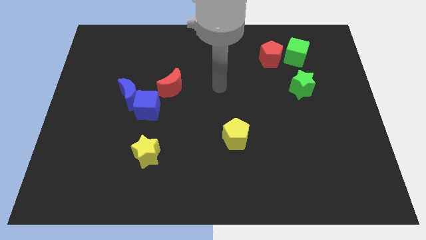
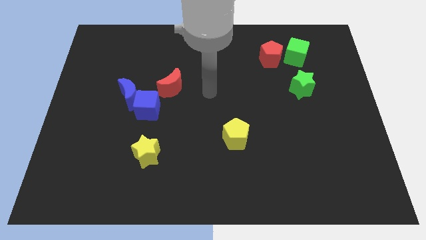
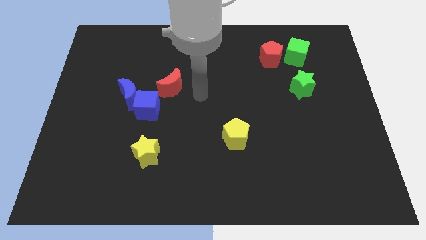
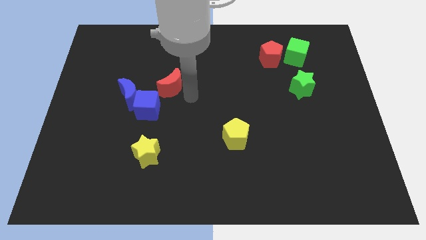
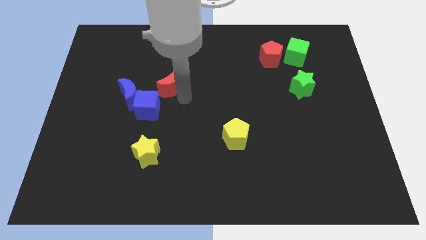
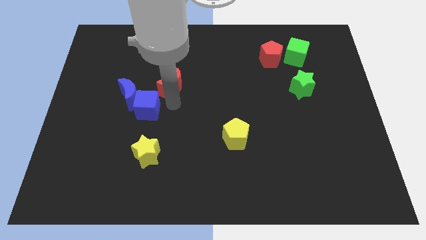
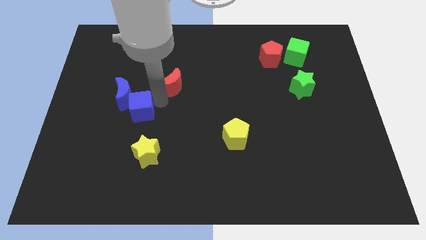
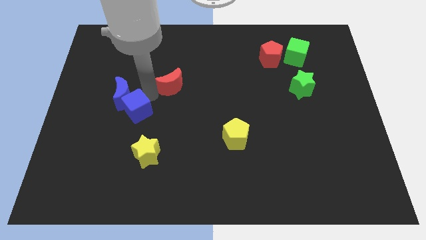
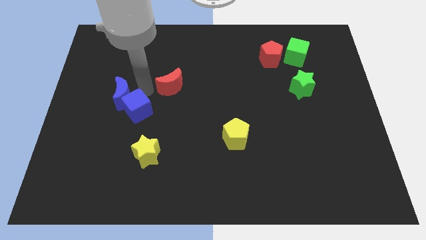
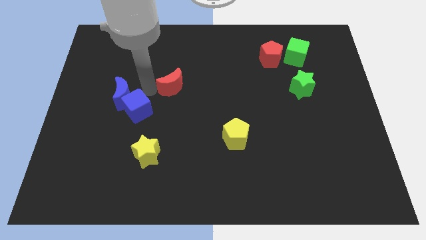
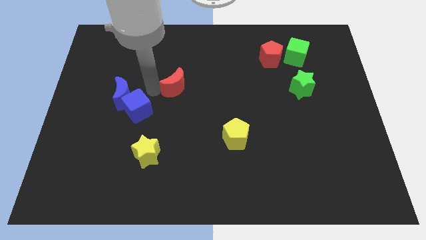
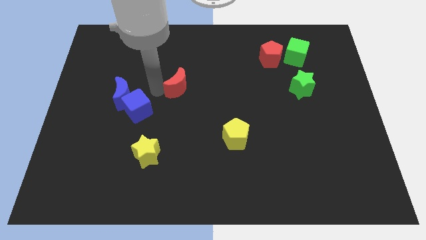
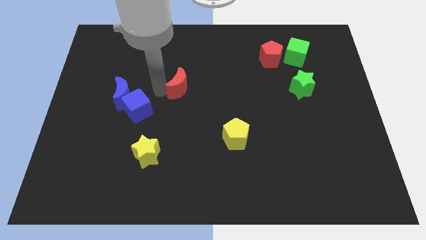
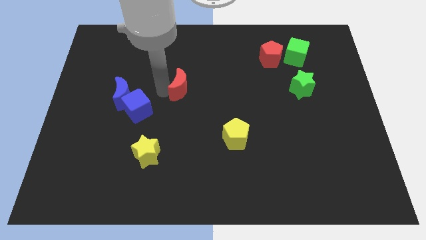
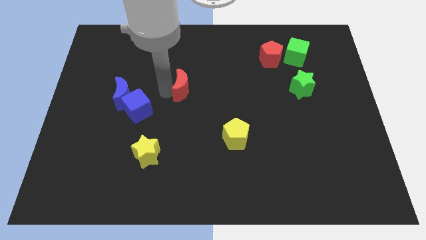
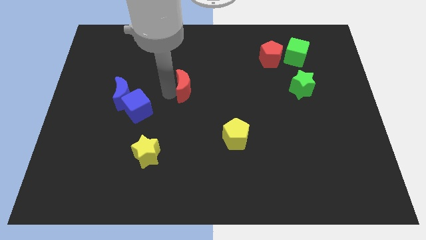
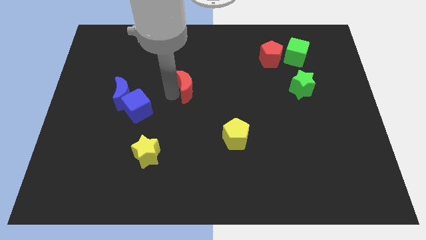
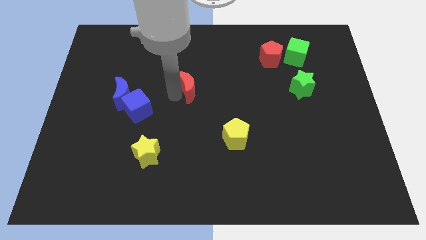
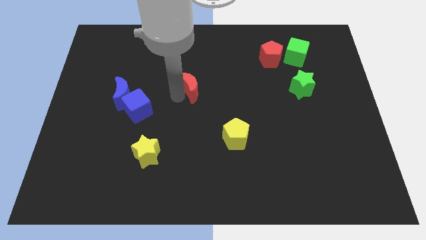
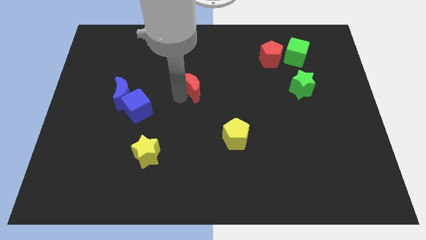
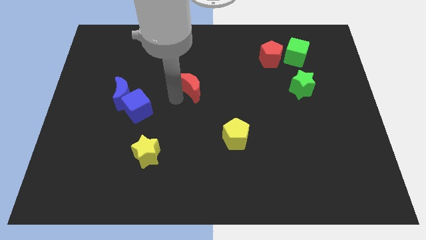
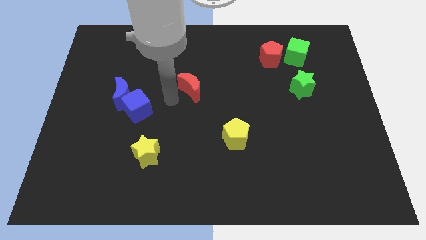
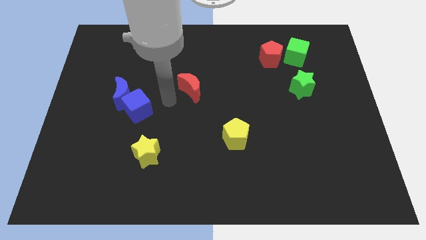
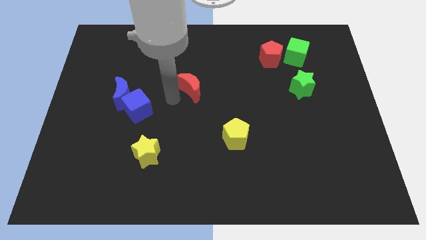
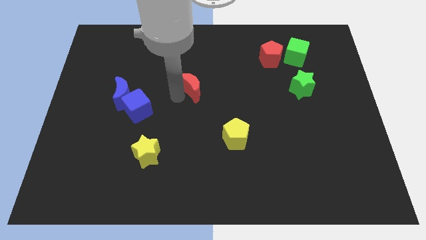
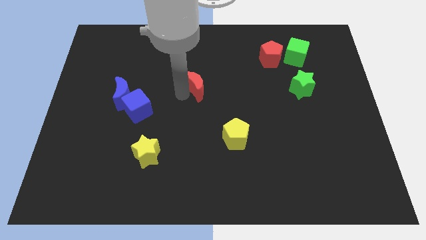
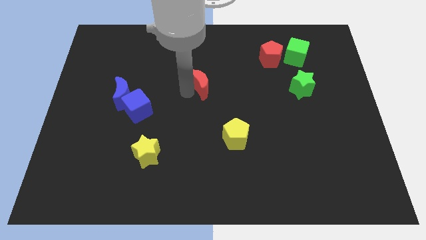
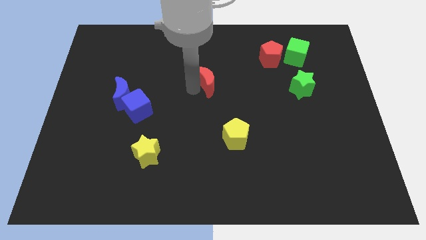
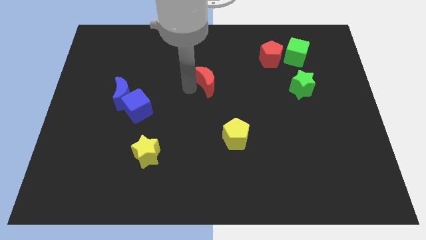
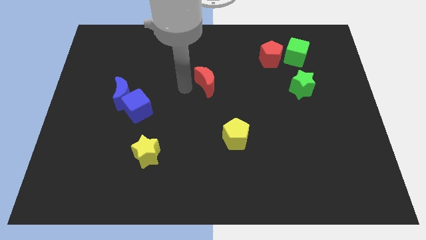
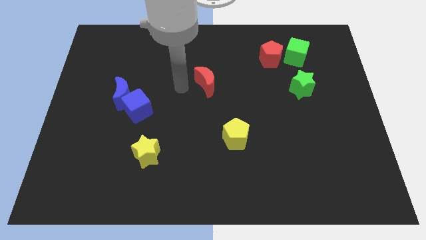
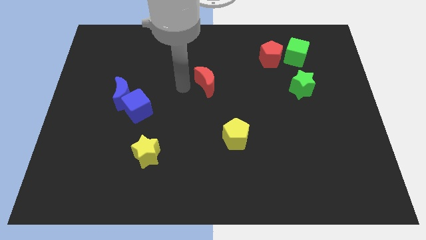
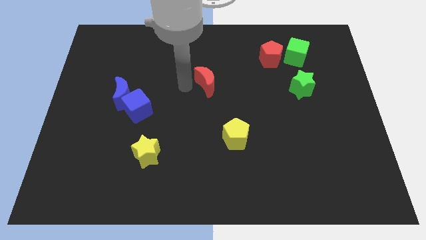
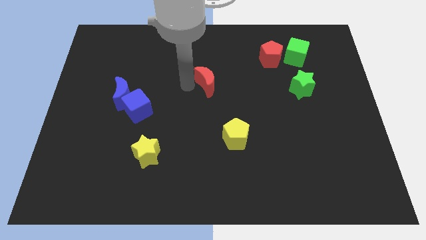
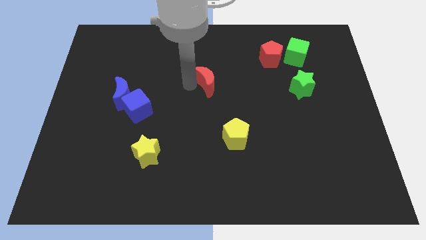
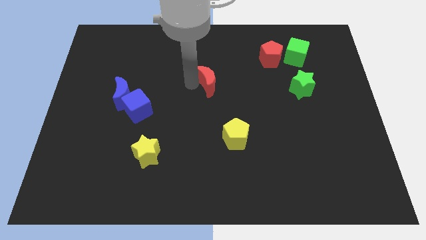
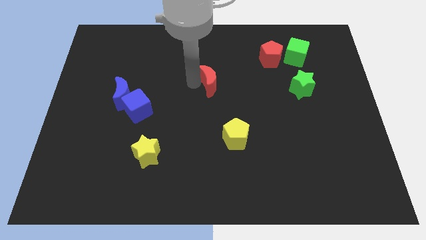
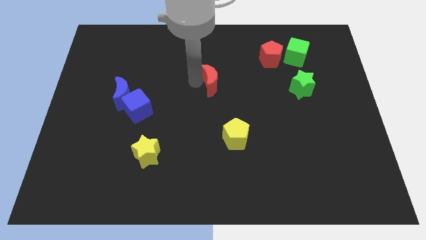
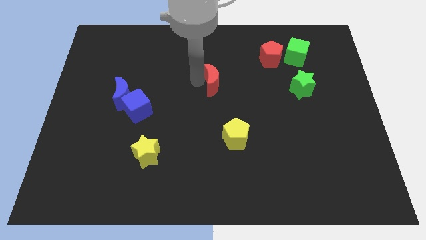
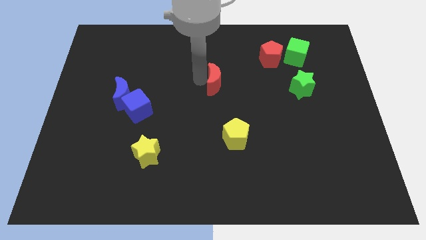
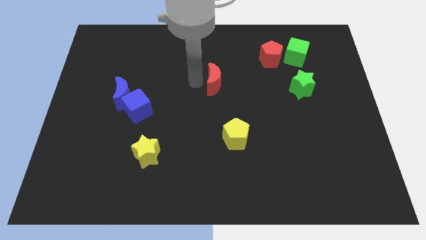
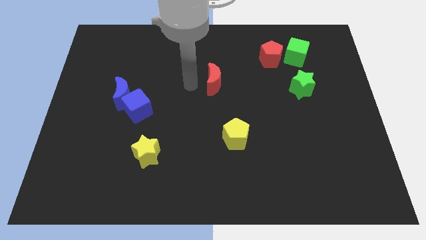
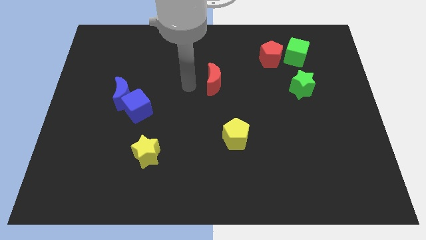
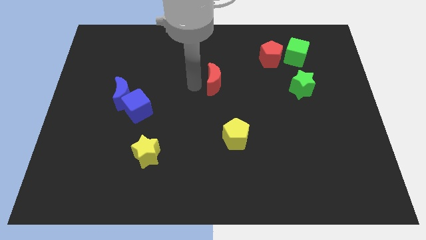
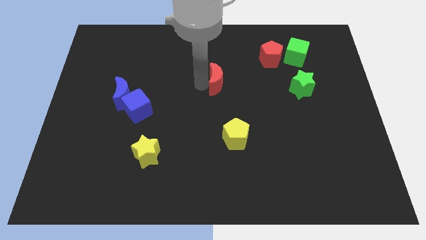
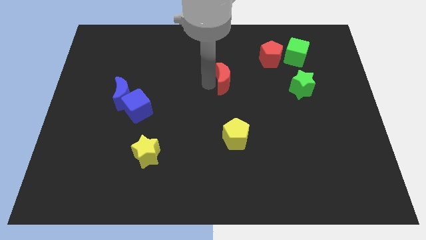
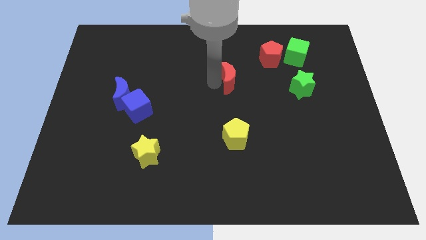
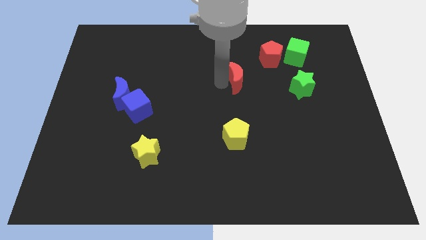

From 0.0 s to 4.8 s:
move the red moon to the bottom left side of the red pentagon

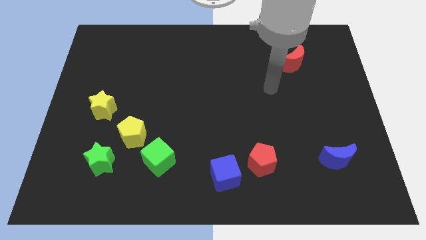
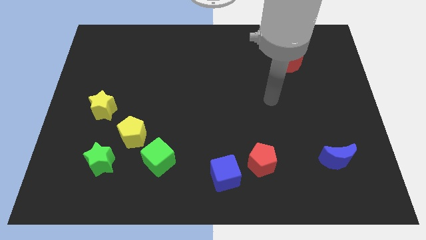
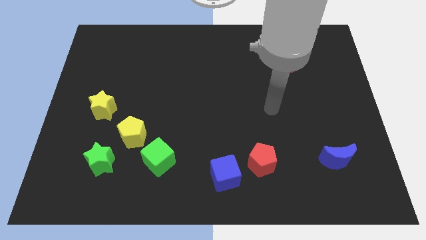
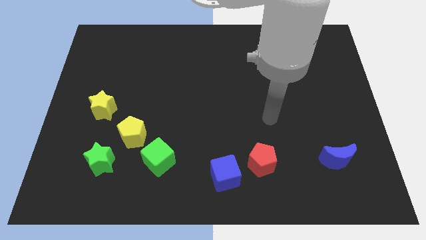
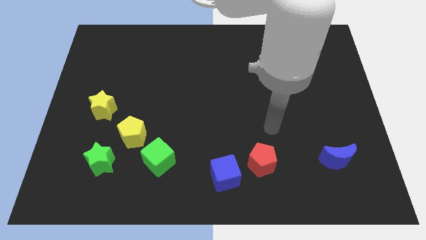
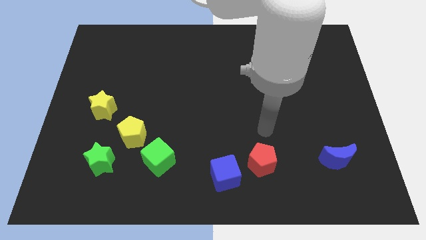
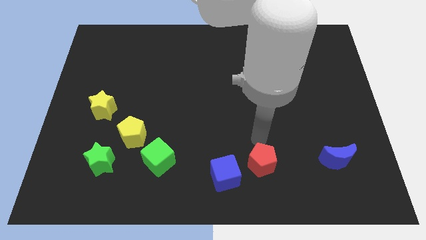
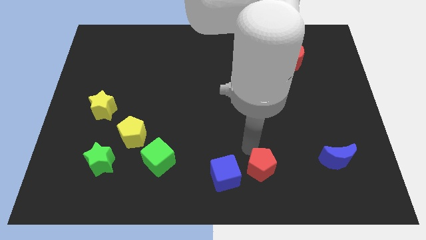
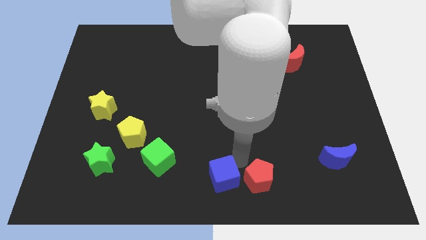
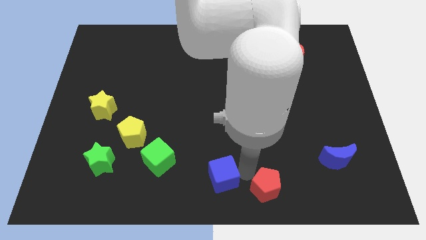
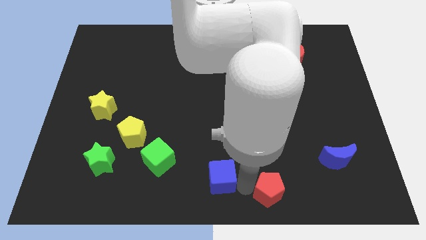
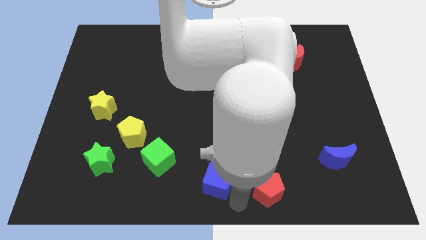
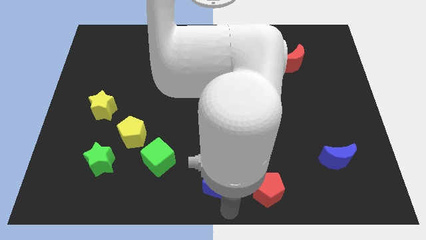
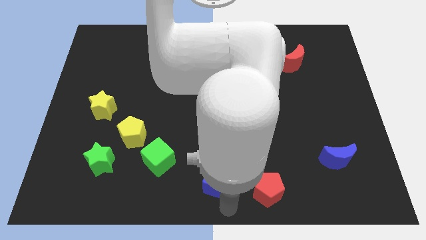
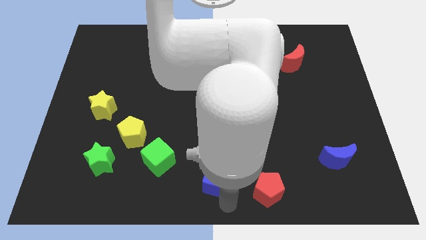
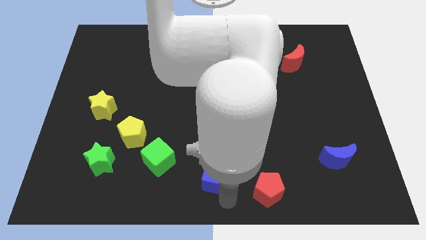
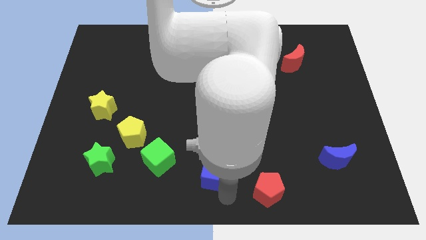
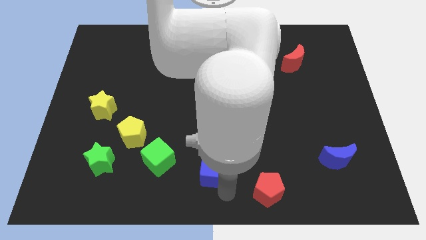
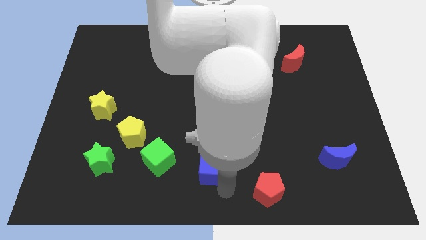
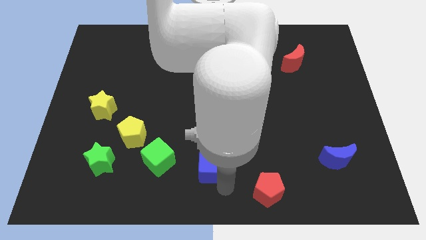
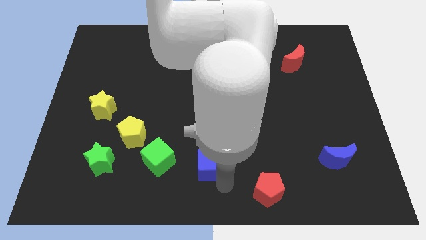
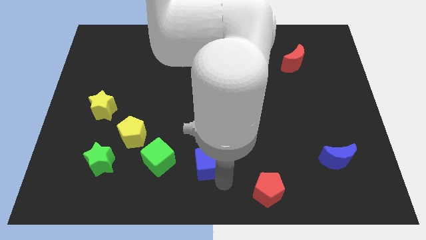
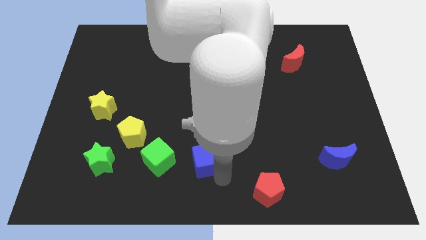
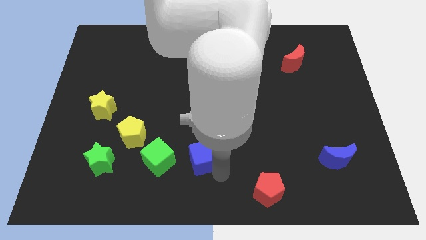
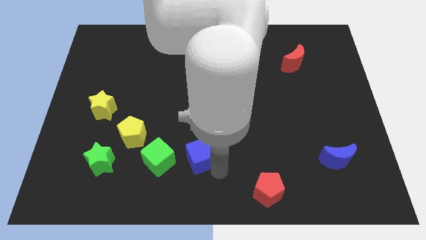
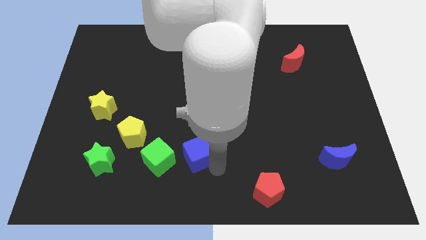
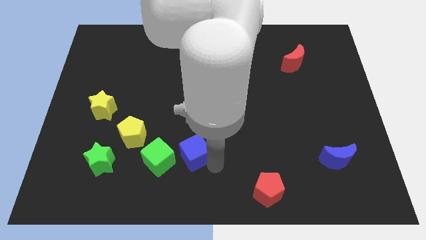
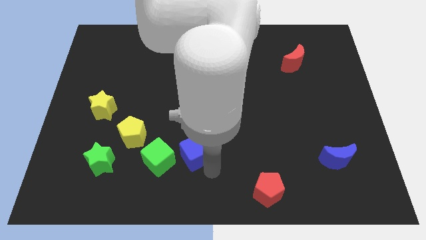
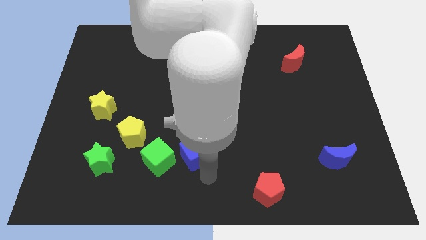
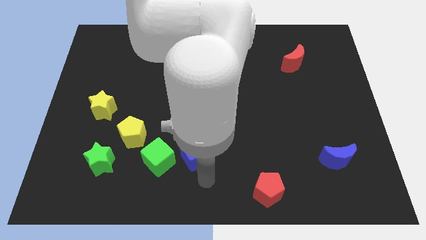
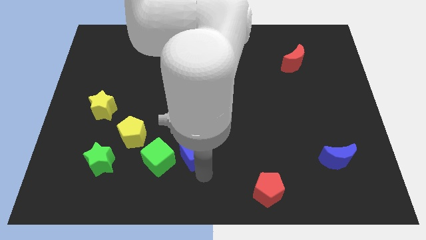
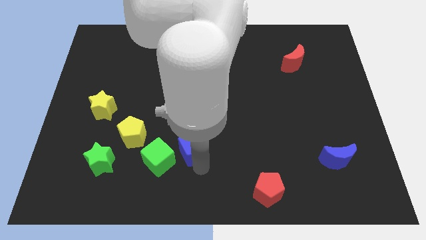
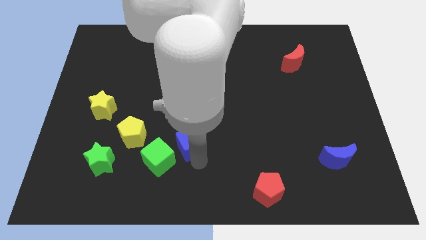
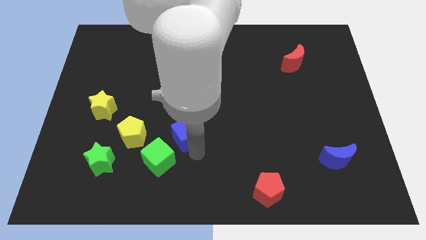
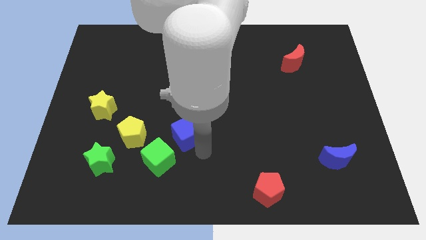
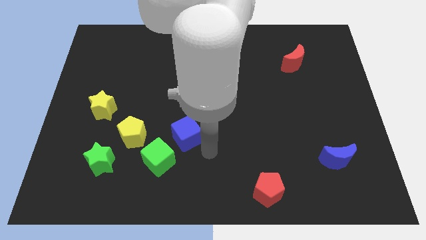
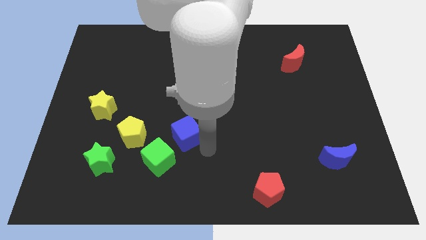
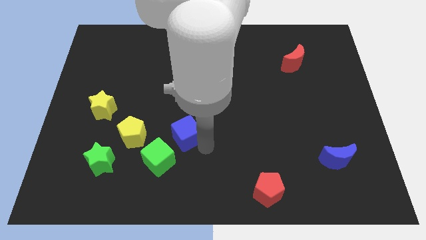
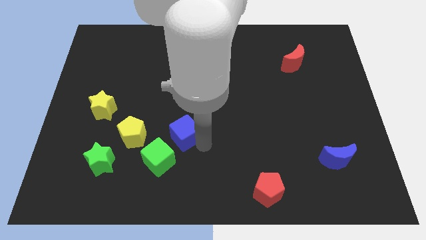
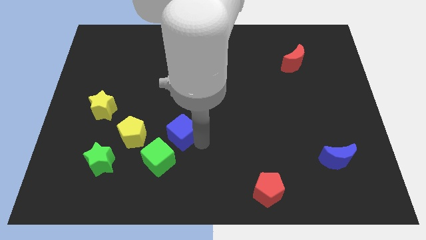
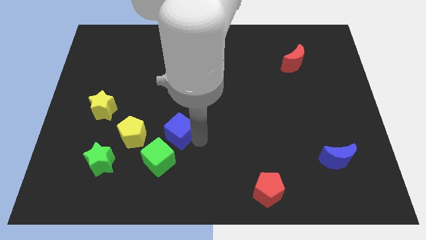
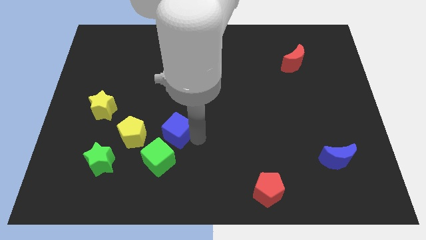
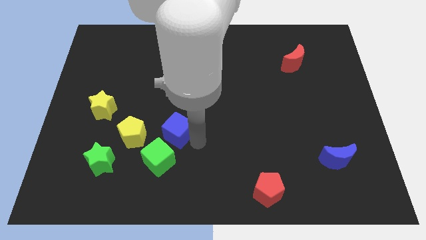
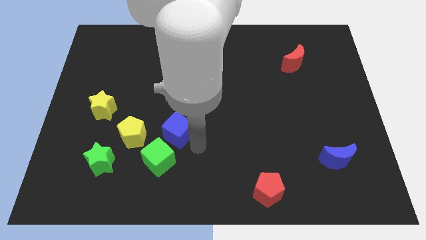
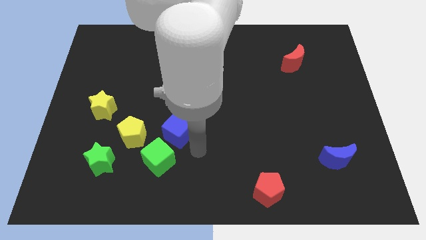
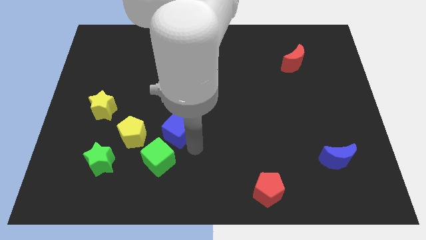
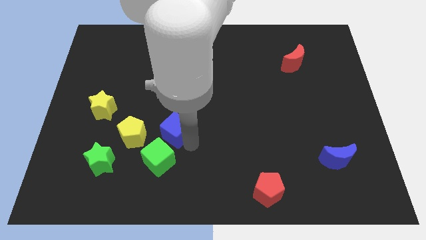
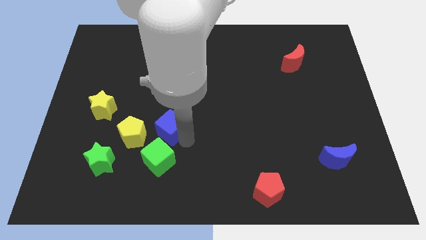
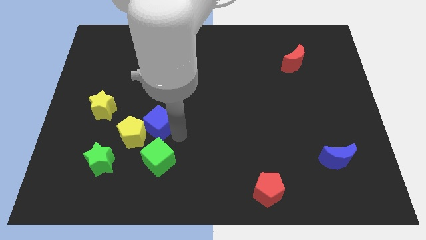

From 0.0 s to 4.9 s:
move the blue cube just right of the yellow star
